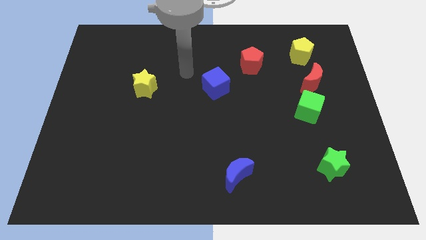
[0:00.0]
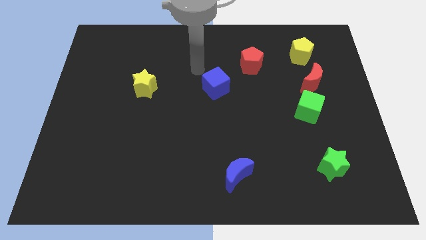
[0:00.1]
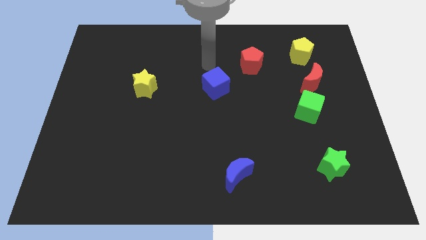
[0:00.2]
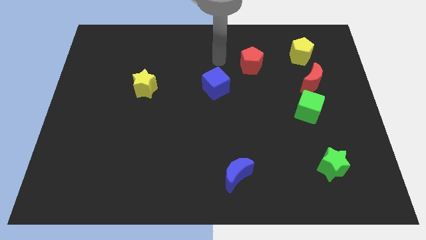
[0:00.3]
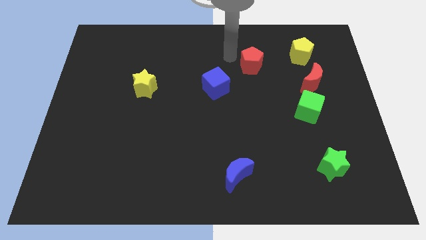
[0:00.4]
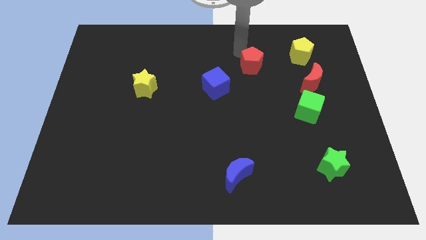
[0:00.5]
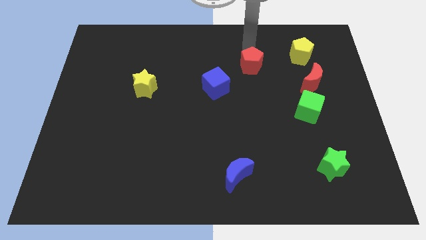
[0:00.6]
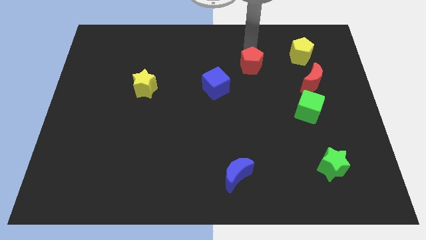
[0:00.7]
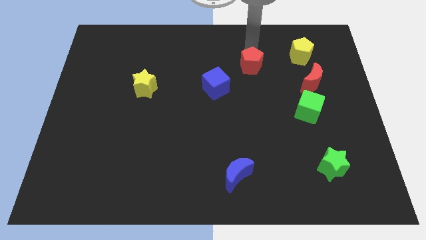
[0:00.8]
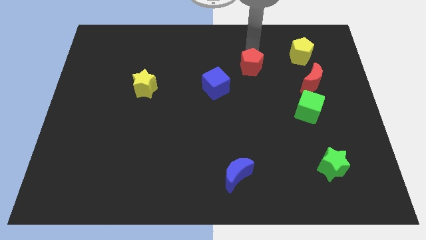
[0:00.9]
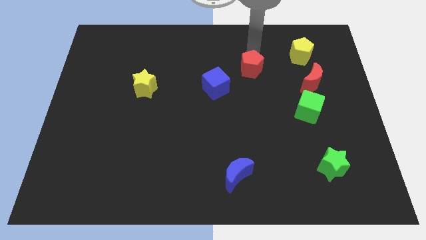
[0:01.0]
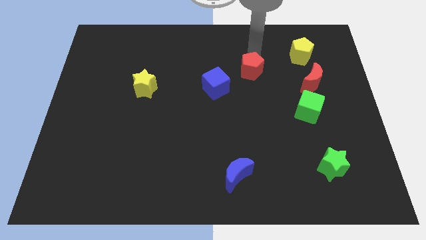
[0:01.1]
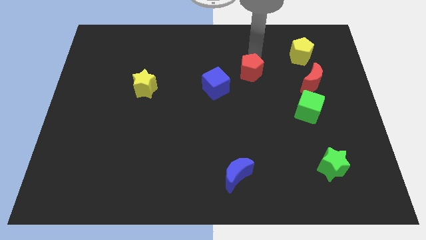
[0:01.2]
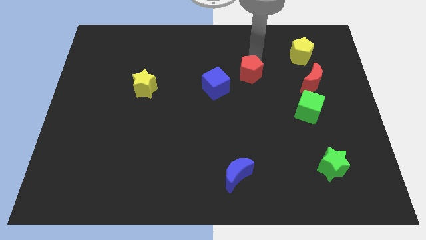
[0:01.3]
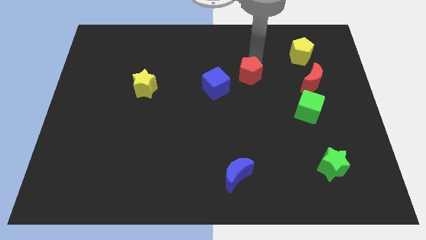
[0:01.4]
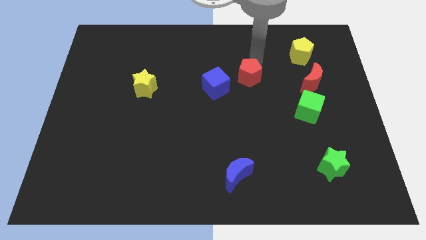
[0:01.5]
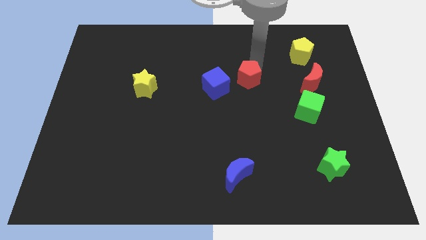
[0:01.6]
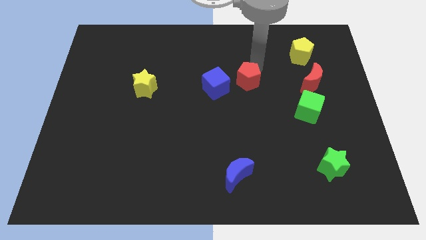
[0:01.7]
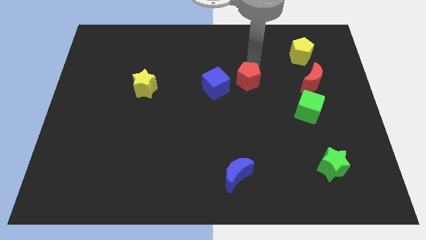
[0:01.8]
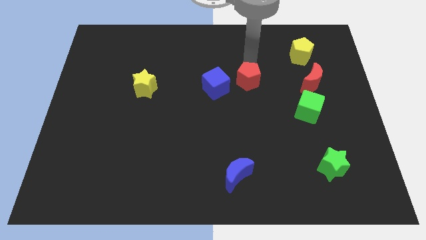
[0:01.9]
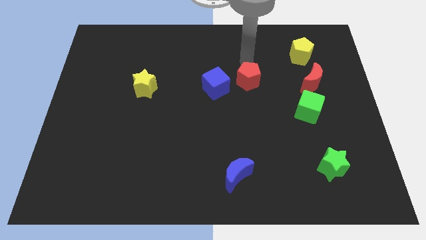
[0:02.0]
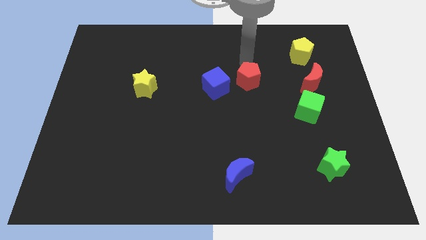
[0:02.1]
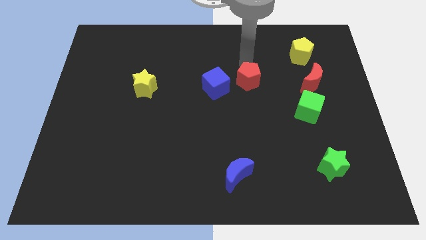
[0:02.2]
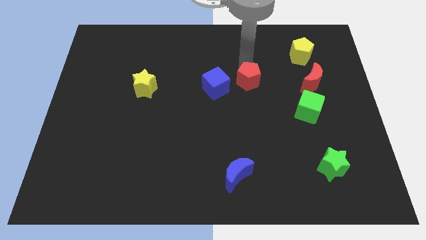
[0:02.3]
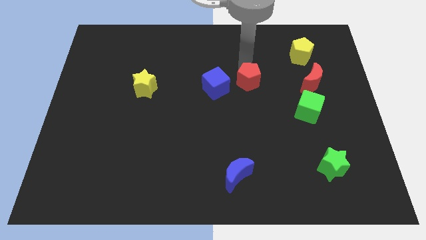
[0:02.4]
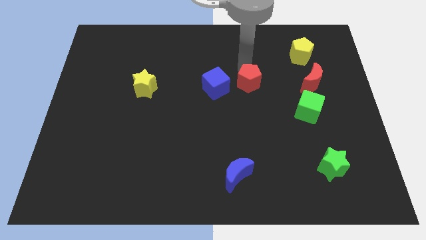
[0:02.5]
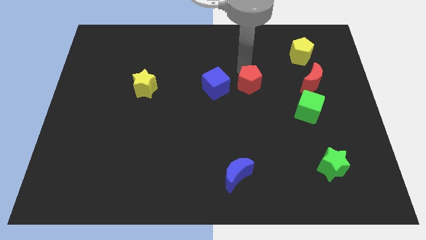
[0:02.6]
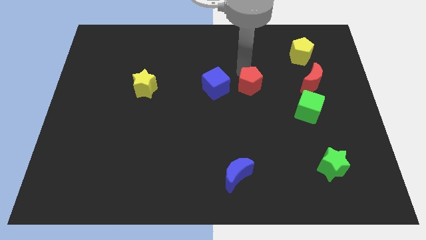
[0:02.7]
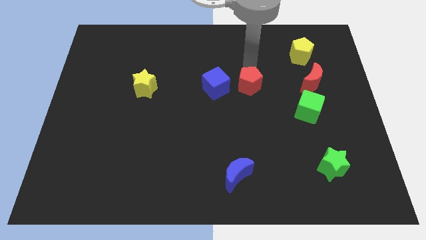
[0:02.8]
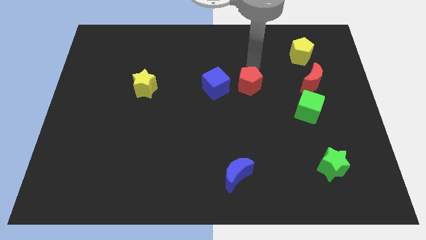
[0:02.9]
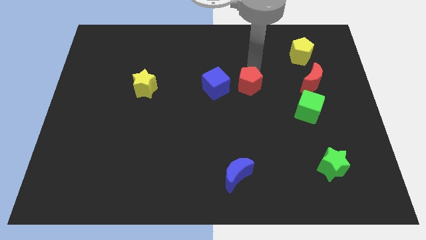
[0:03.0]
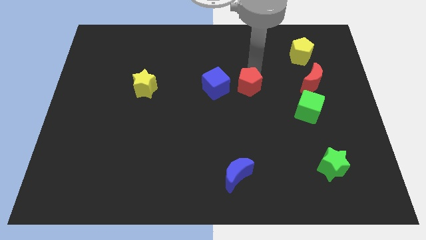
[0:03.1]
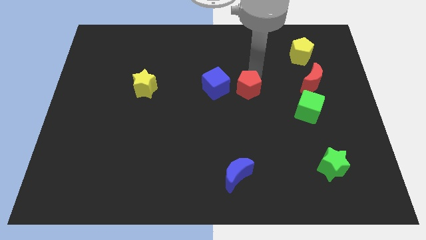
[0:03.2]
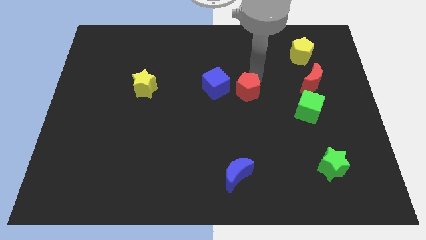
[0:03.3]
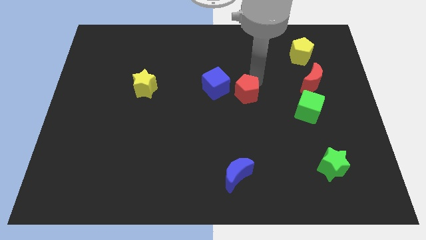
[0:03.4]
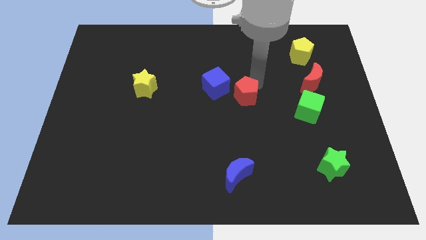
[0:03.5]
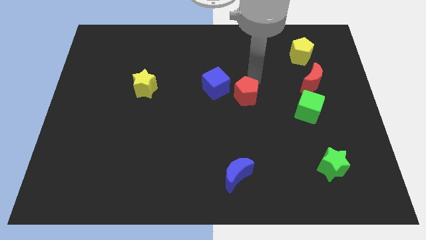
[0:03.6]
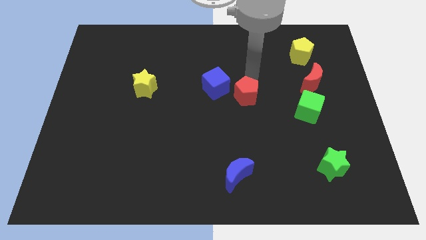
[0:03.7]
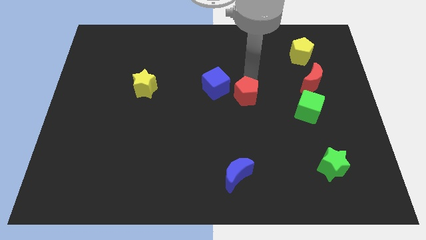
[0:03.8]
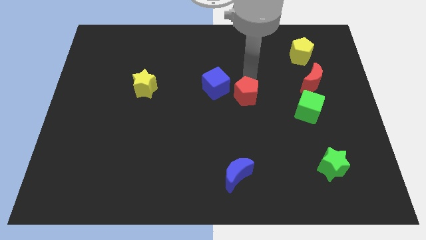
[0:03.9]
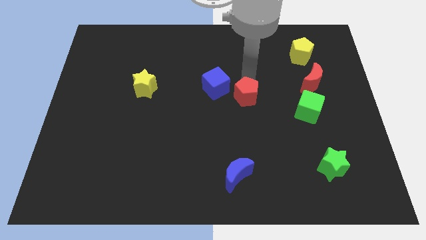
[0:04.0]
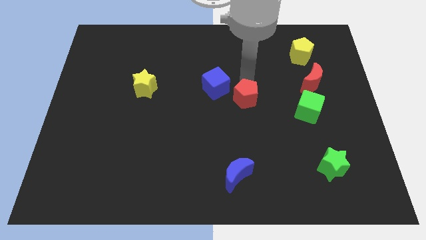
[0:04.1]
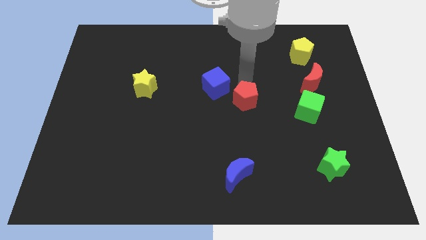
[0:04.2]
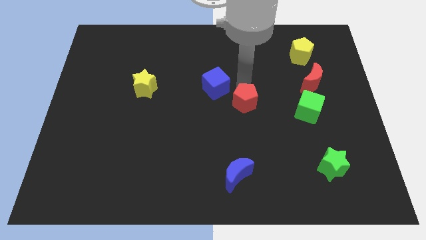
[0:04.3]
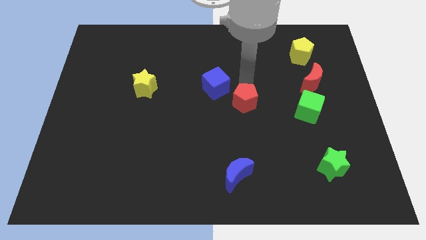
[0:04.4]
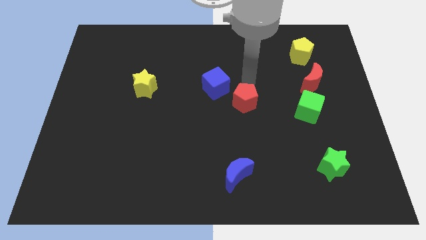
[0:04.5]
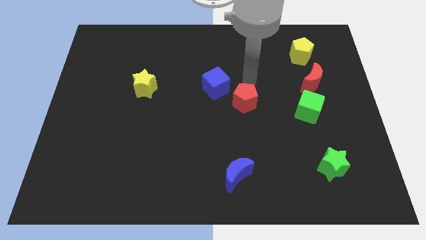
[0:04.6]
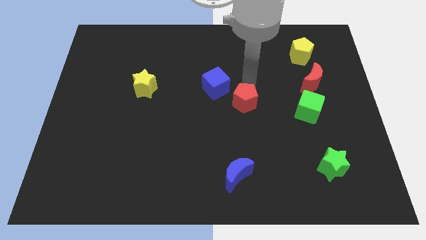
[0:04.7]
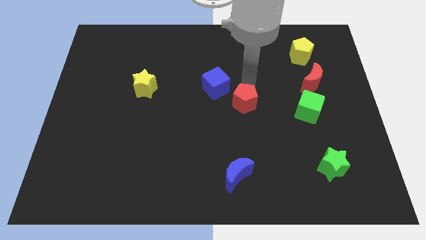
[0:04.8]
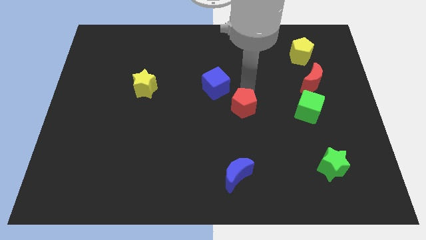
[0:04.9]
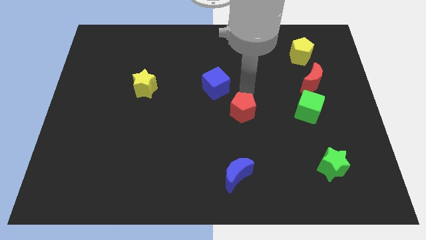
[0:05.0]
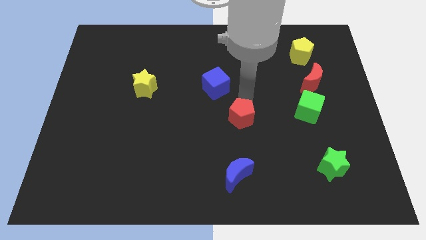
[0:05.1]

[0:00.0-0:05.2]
move the red pentagon to the top of the blue moon
